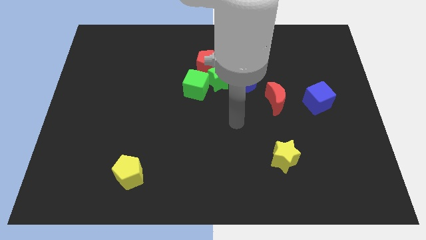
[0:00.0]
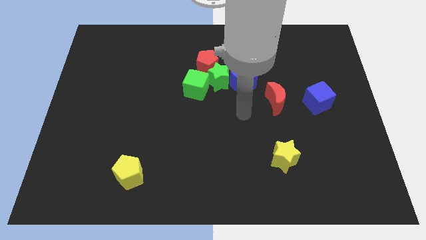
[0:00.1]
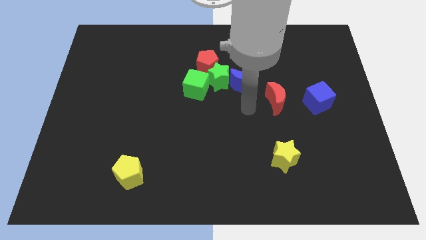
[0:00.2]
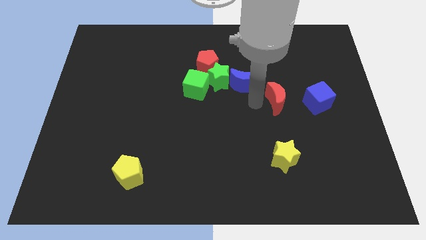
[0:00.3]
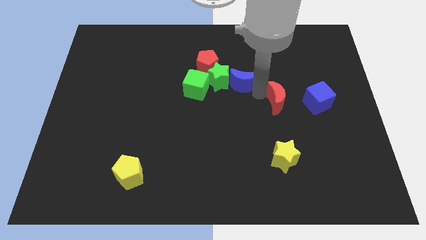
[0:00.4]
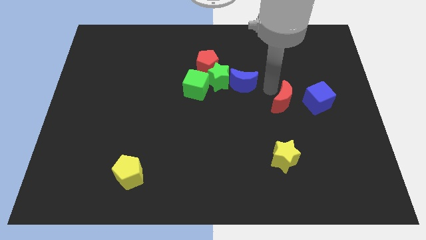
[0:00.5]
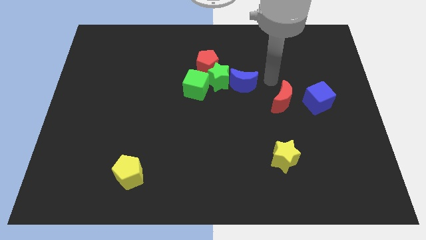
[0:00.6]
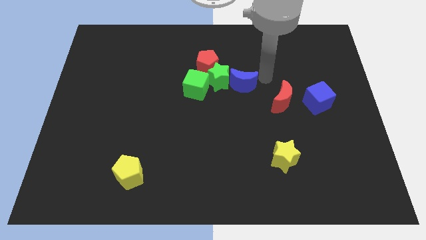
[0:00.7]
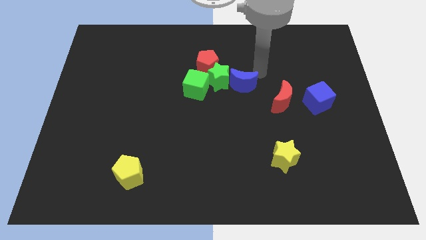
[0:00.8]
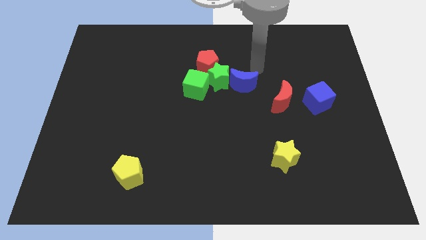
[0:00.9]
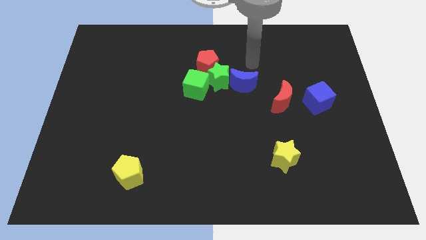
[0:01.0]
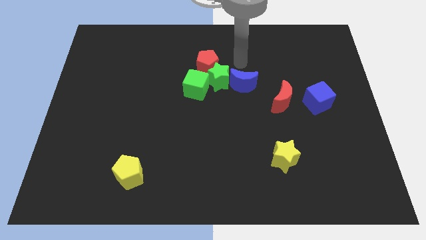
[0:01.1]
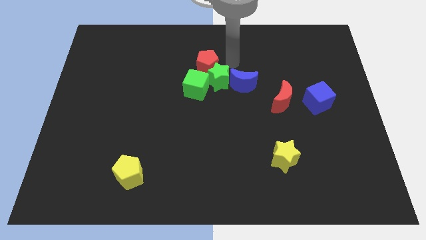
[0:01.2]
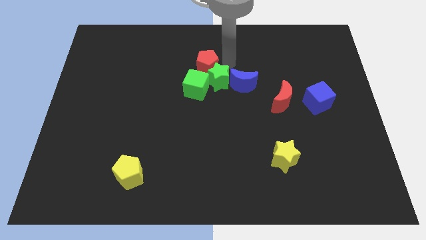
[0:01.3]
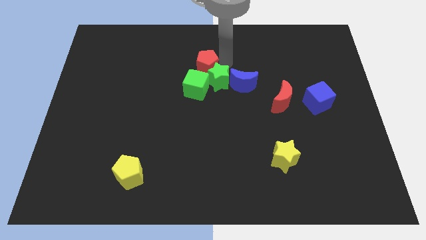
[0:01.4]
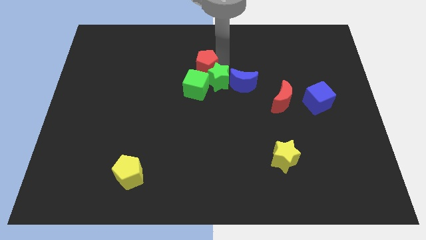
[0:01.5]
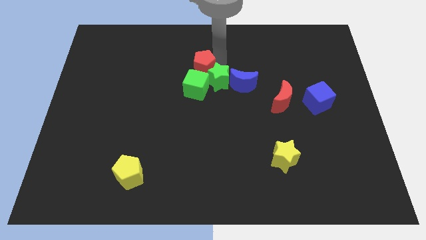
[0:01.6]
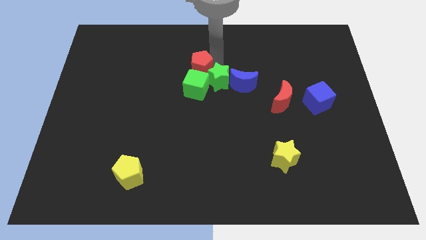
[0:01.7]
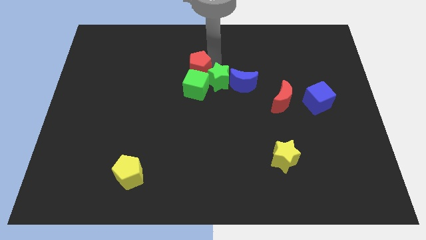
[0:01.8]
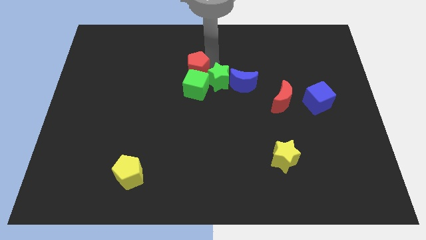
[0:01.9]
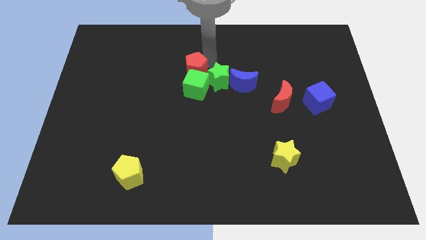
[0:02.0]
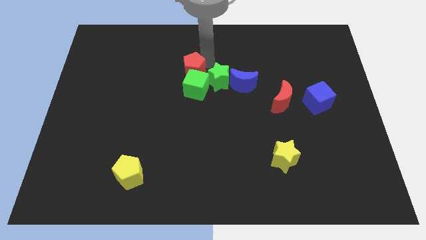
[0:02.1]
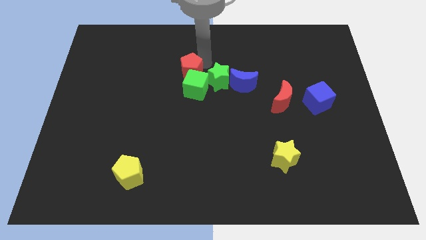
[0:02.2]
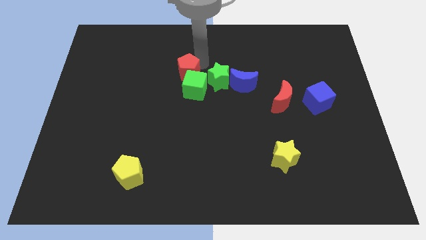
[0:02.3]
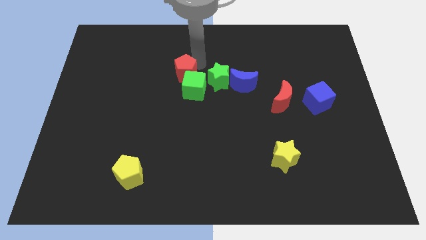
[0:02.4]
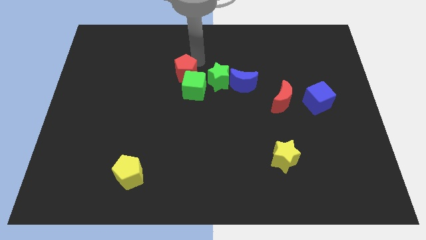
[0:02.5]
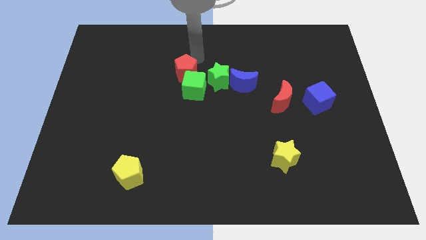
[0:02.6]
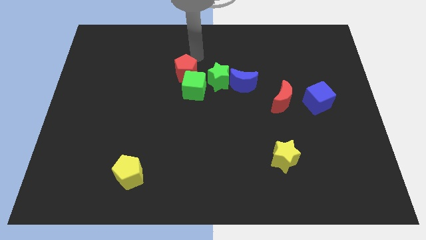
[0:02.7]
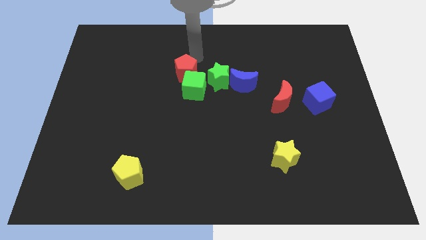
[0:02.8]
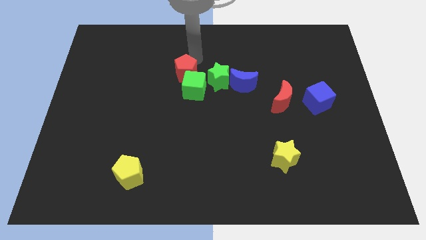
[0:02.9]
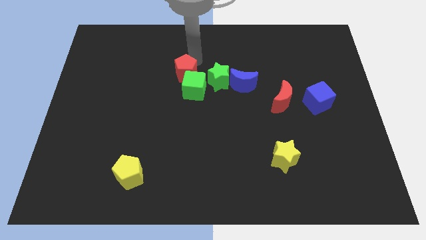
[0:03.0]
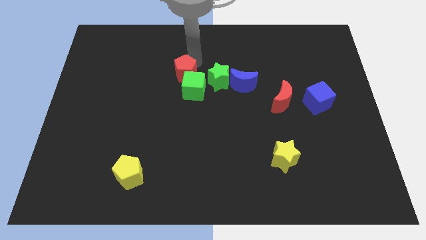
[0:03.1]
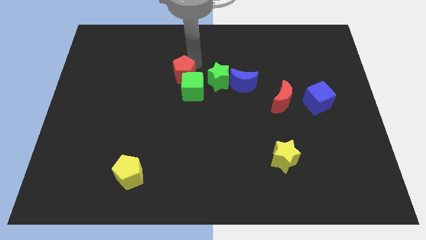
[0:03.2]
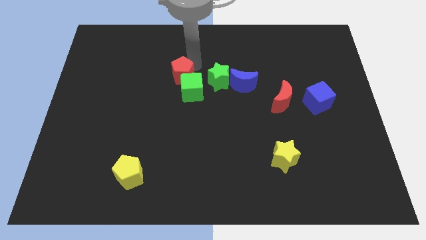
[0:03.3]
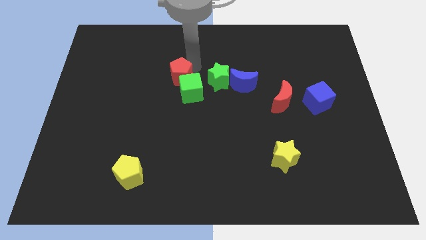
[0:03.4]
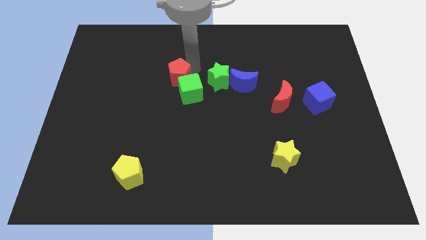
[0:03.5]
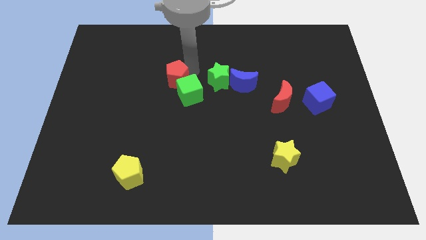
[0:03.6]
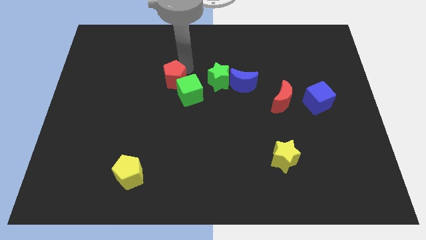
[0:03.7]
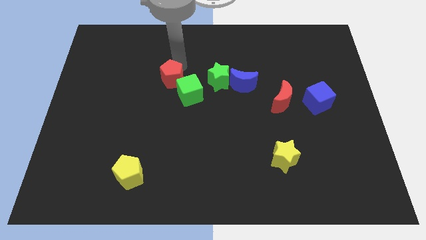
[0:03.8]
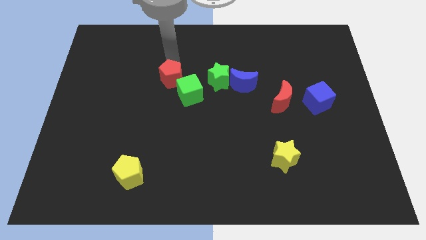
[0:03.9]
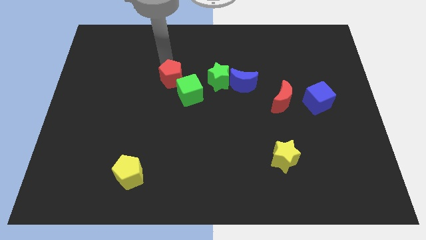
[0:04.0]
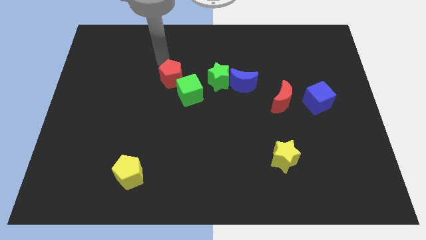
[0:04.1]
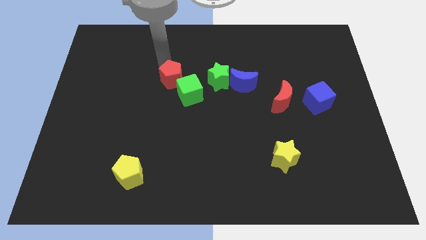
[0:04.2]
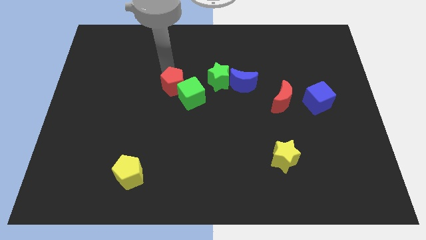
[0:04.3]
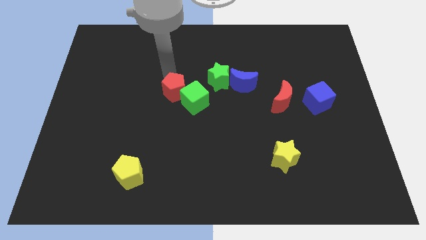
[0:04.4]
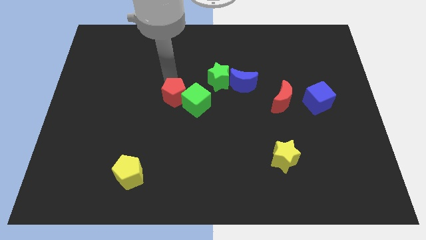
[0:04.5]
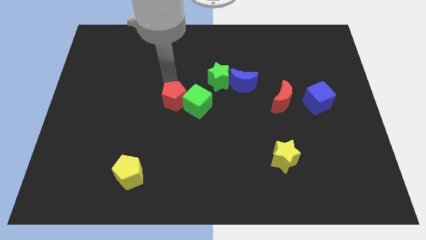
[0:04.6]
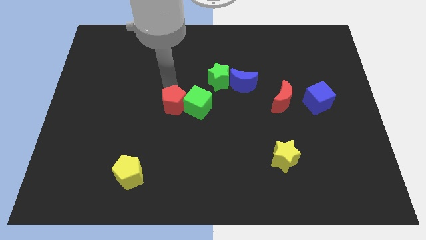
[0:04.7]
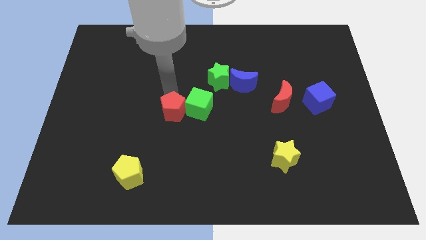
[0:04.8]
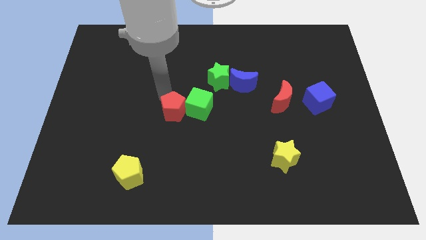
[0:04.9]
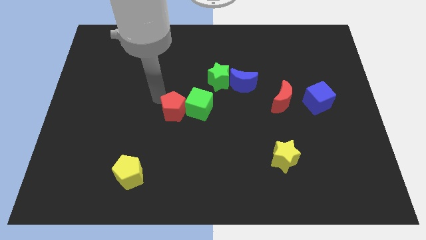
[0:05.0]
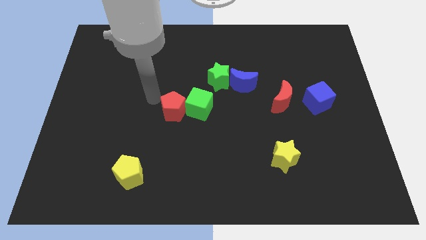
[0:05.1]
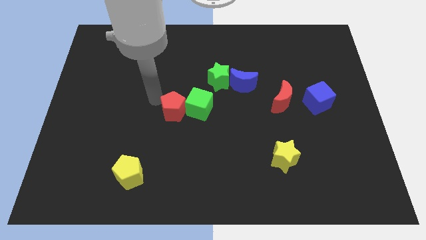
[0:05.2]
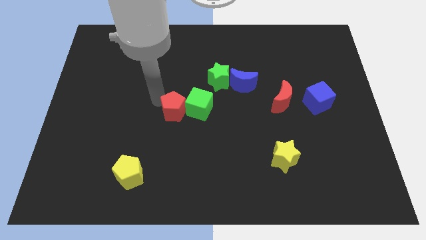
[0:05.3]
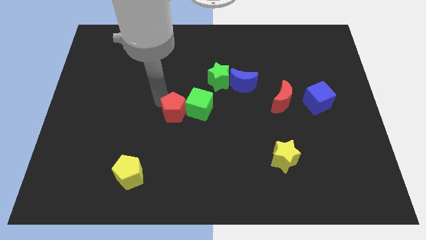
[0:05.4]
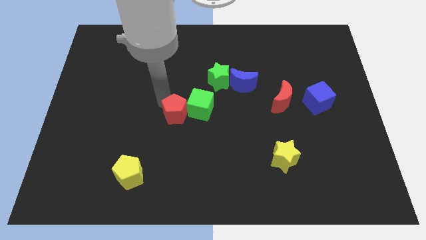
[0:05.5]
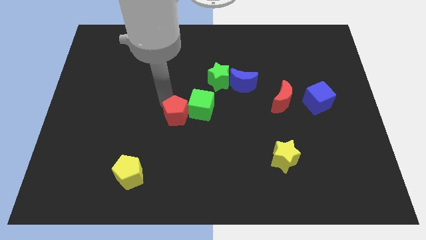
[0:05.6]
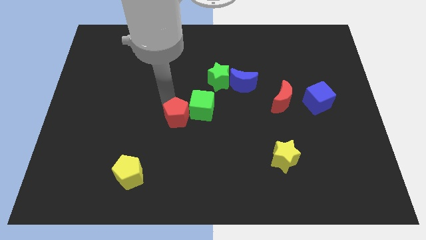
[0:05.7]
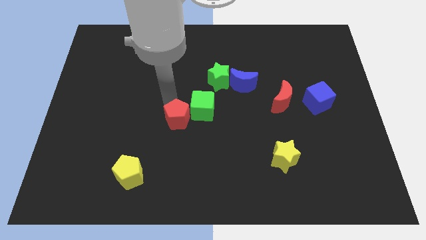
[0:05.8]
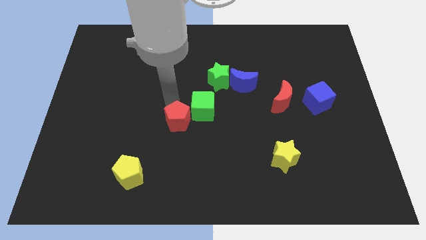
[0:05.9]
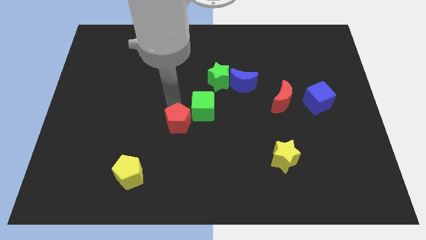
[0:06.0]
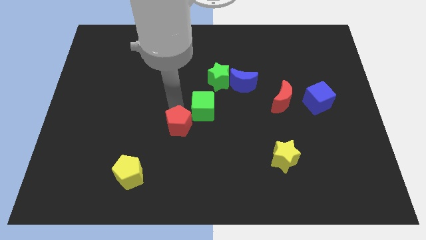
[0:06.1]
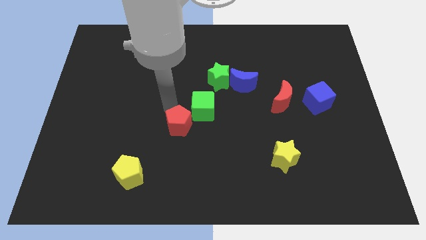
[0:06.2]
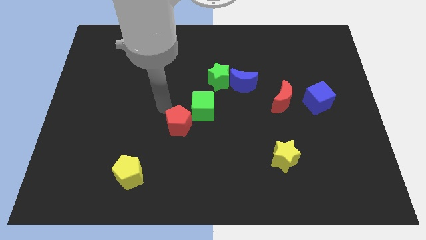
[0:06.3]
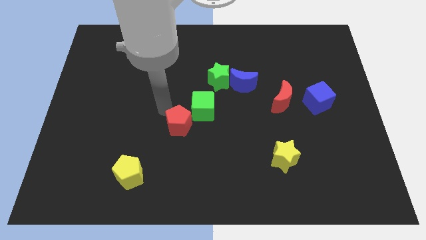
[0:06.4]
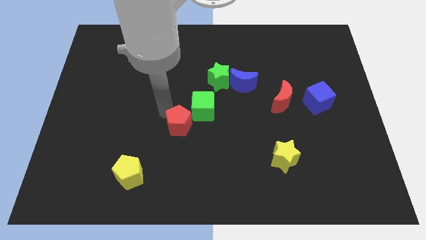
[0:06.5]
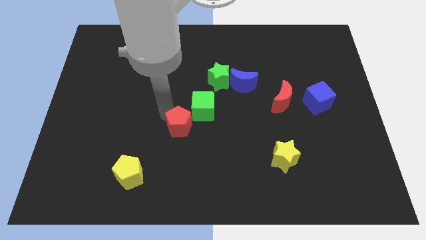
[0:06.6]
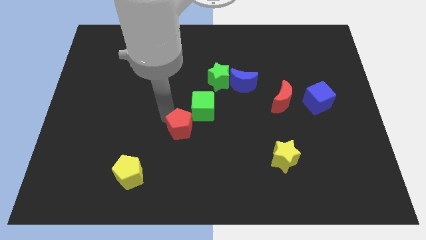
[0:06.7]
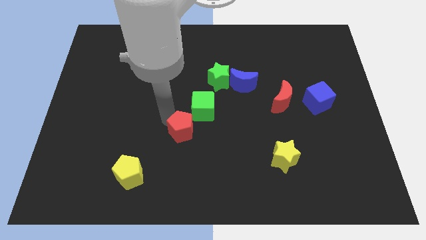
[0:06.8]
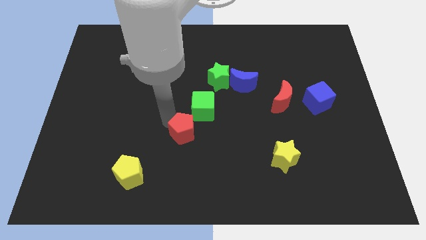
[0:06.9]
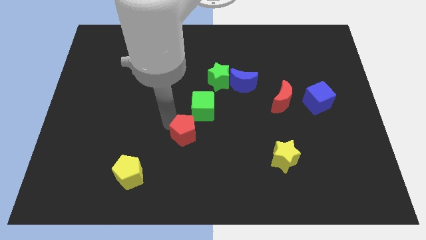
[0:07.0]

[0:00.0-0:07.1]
slide the red pentagon down

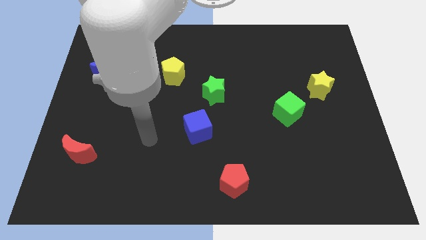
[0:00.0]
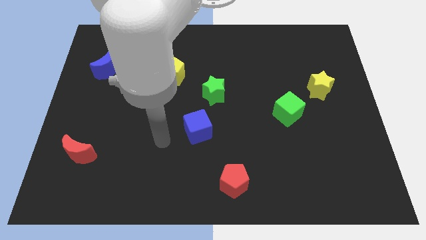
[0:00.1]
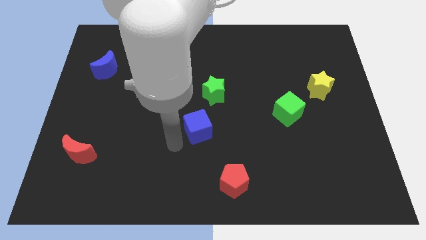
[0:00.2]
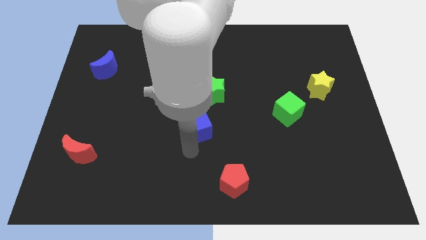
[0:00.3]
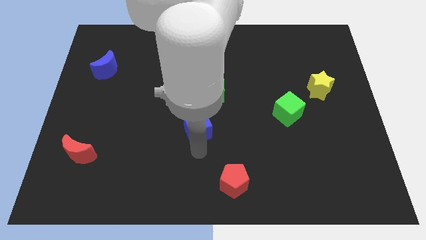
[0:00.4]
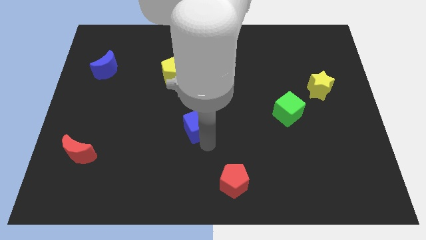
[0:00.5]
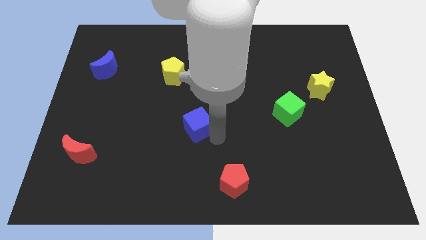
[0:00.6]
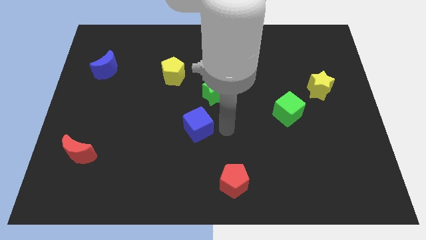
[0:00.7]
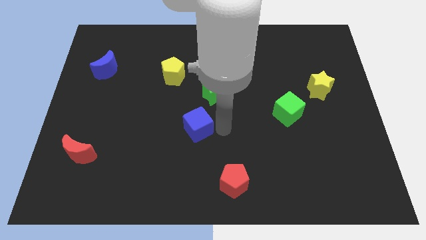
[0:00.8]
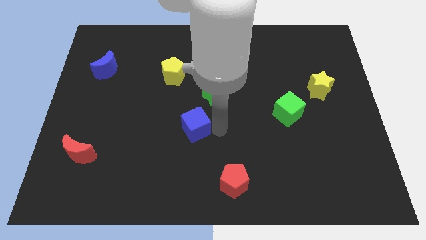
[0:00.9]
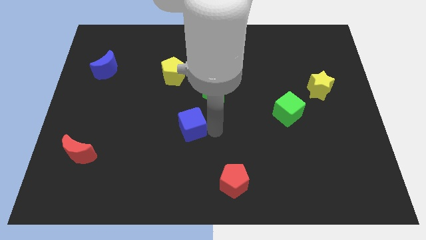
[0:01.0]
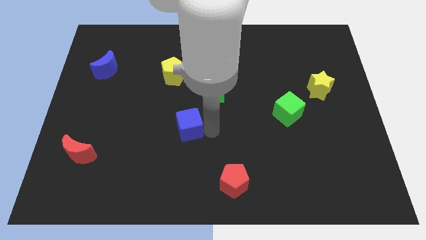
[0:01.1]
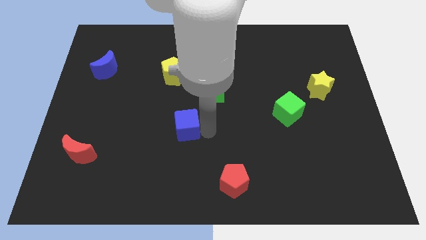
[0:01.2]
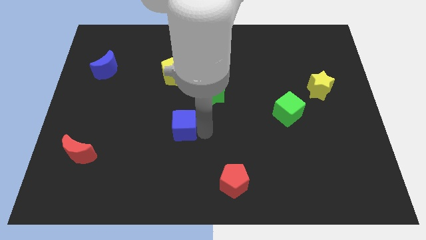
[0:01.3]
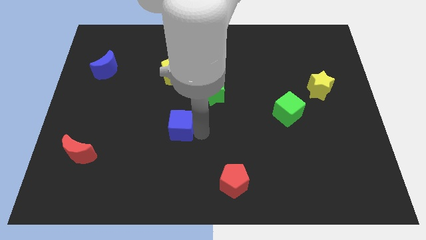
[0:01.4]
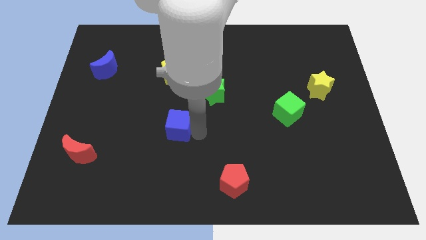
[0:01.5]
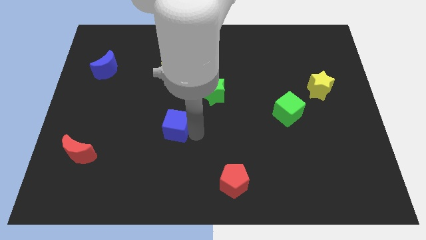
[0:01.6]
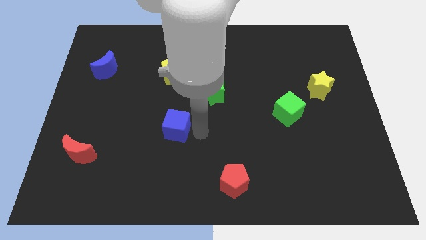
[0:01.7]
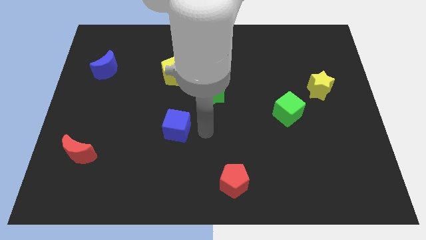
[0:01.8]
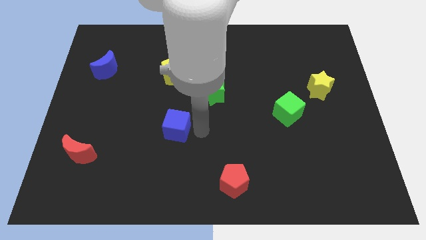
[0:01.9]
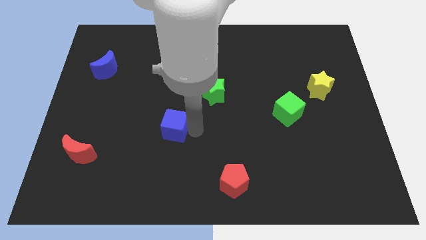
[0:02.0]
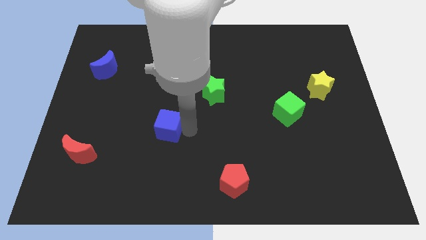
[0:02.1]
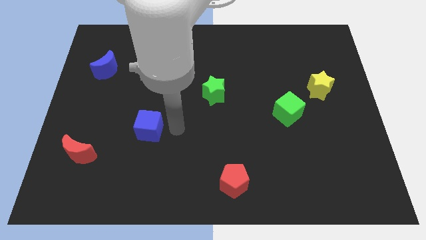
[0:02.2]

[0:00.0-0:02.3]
slightly move the blue cube to the left
